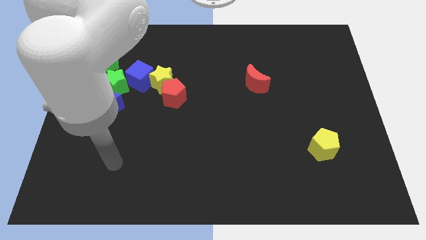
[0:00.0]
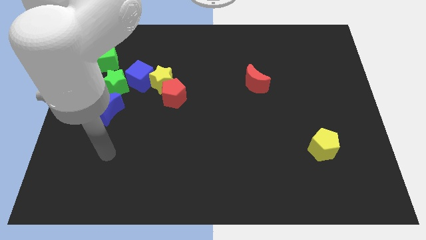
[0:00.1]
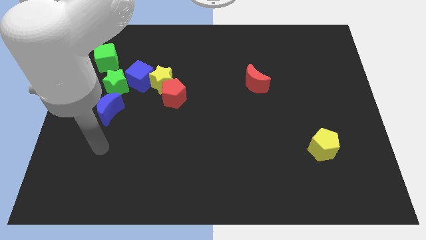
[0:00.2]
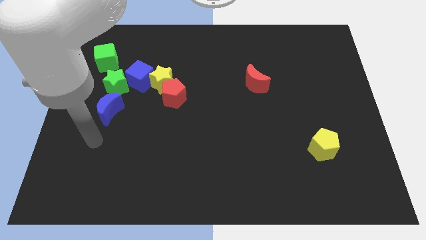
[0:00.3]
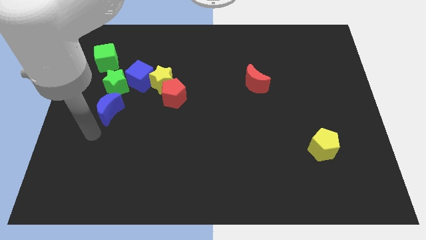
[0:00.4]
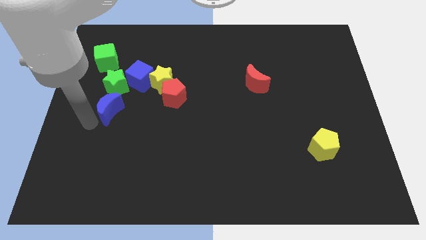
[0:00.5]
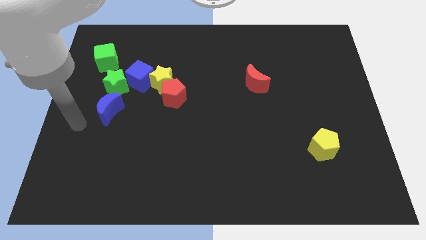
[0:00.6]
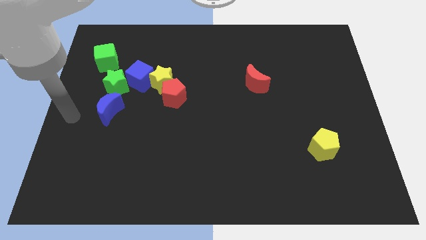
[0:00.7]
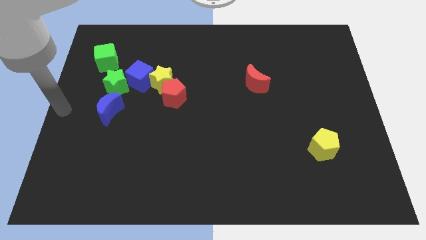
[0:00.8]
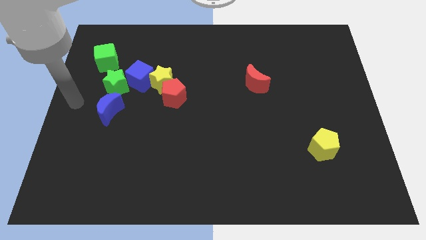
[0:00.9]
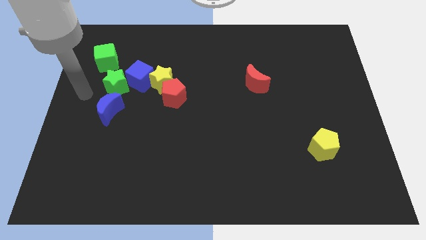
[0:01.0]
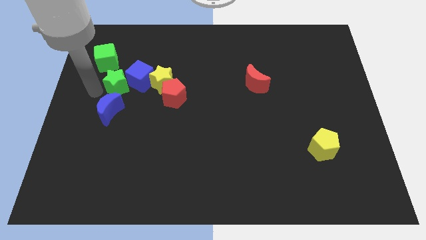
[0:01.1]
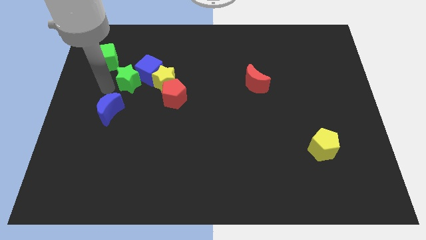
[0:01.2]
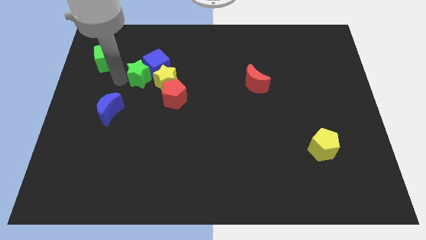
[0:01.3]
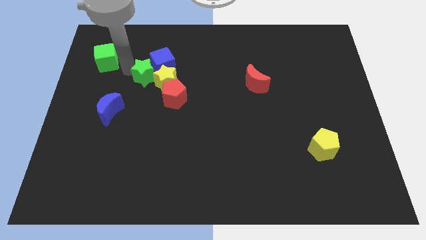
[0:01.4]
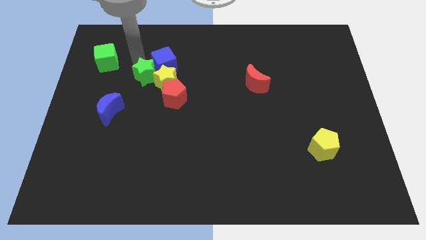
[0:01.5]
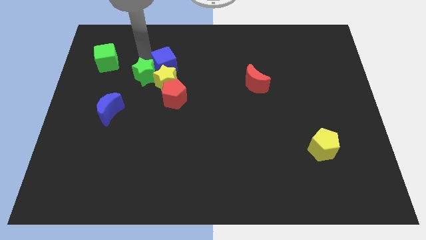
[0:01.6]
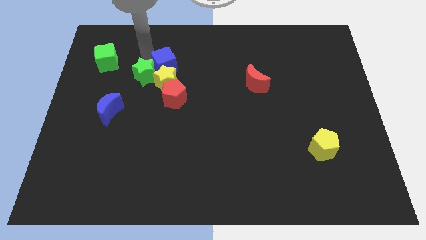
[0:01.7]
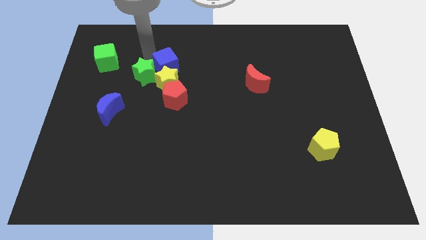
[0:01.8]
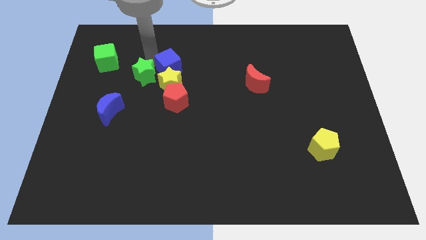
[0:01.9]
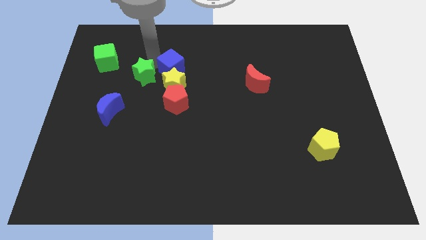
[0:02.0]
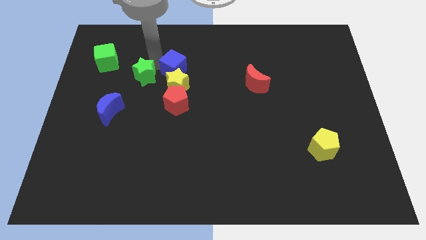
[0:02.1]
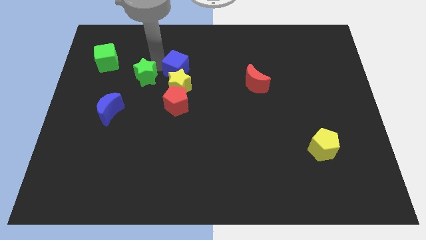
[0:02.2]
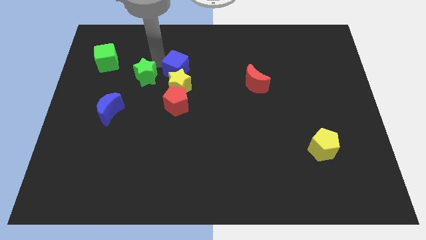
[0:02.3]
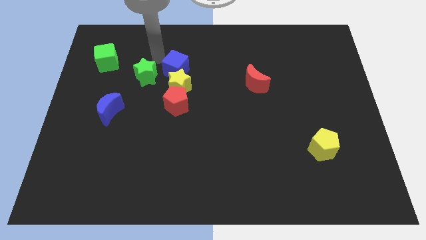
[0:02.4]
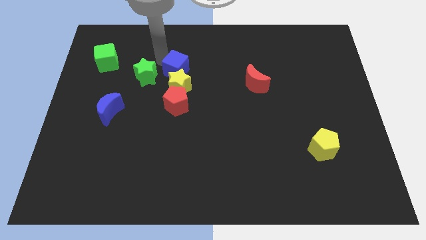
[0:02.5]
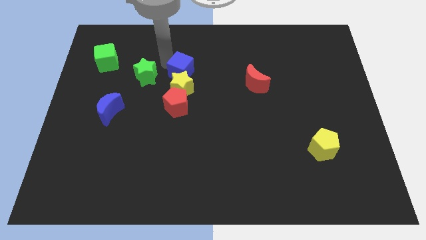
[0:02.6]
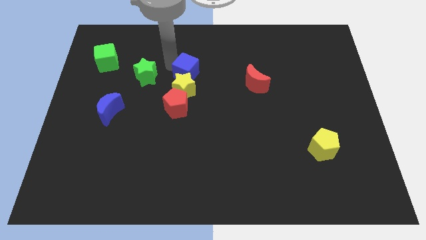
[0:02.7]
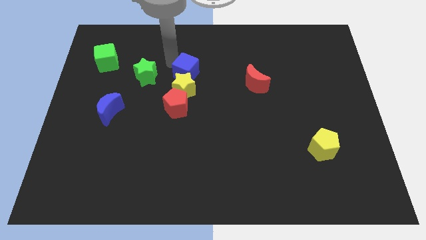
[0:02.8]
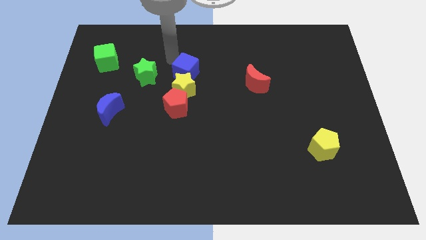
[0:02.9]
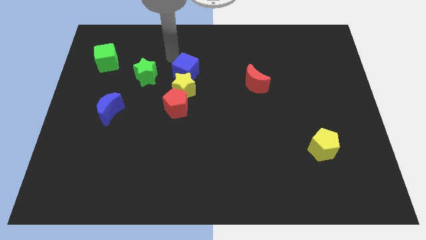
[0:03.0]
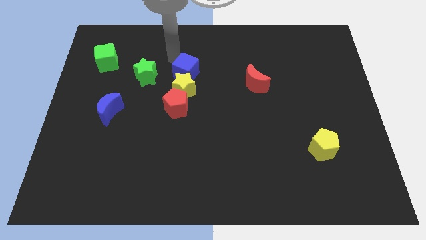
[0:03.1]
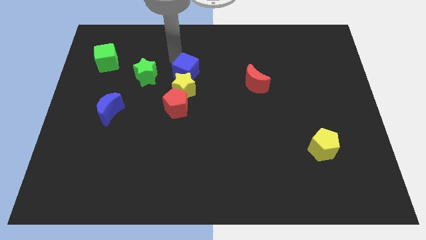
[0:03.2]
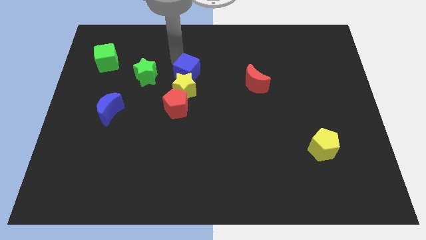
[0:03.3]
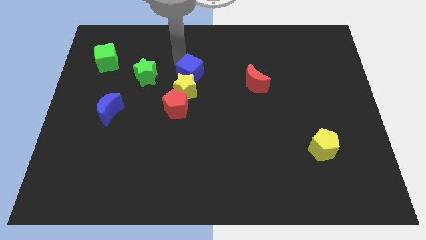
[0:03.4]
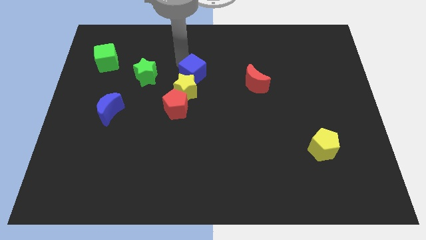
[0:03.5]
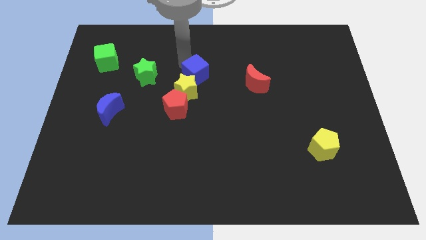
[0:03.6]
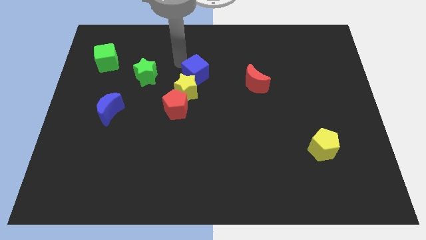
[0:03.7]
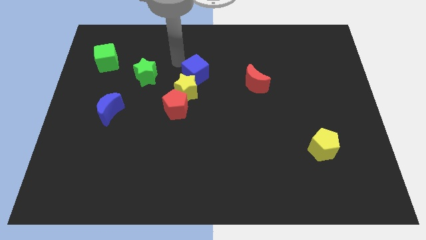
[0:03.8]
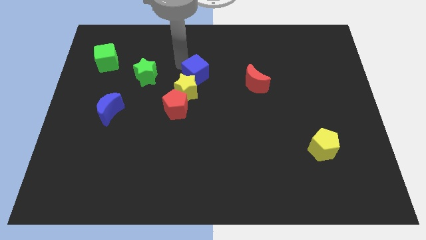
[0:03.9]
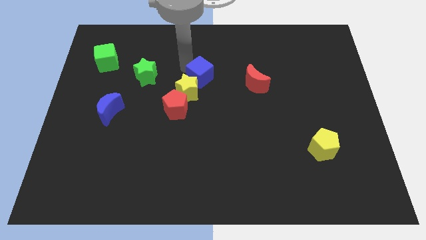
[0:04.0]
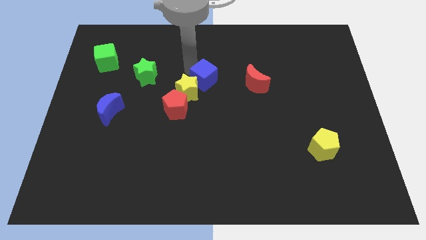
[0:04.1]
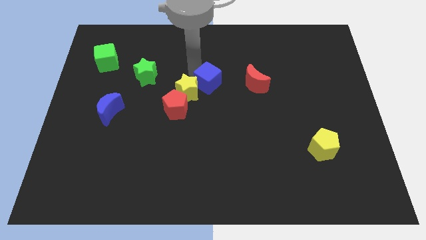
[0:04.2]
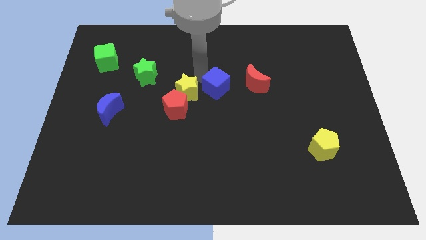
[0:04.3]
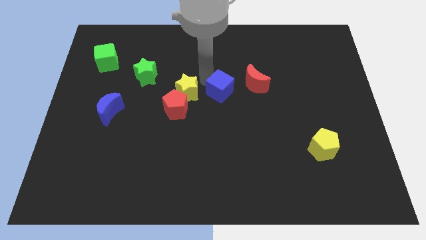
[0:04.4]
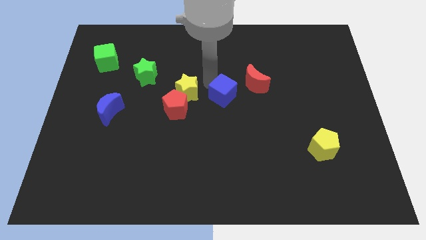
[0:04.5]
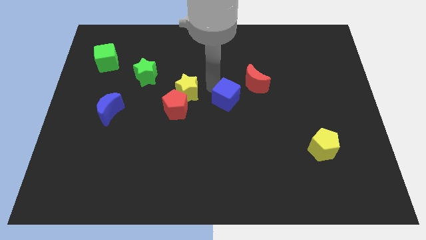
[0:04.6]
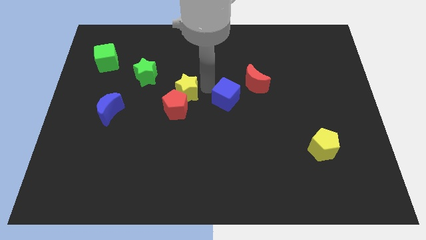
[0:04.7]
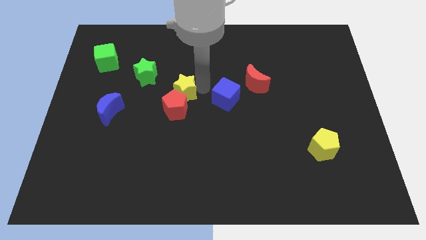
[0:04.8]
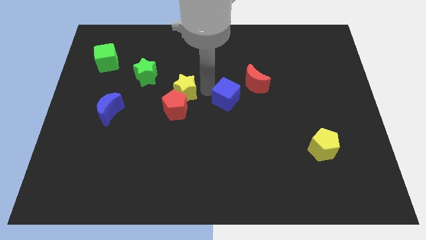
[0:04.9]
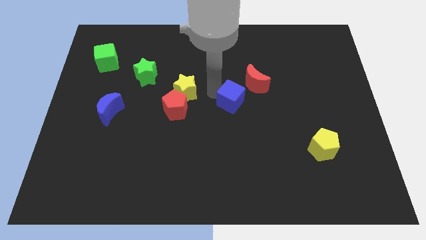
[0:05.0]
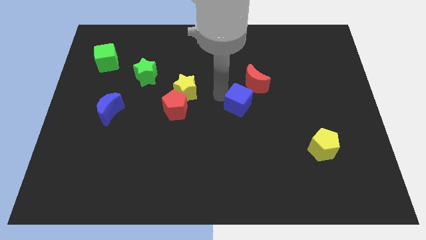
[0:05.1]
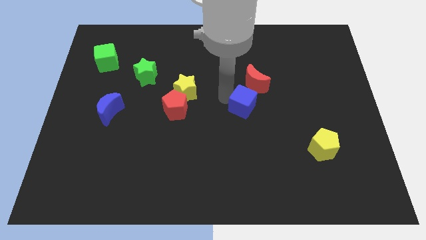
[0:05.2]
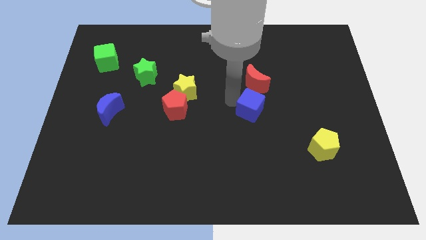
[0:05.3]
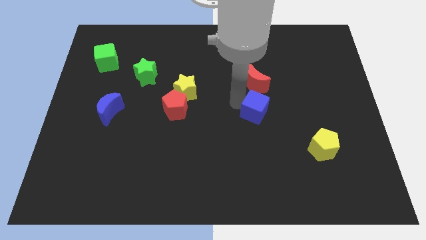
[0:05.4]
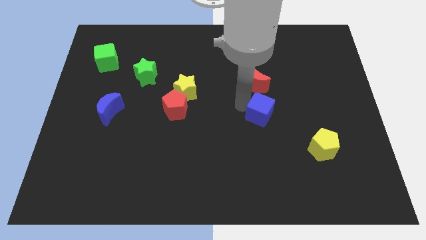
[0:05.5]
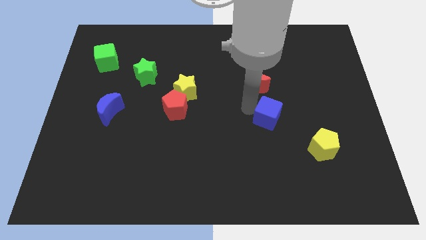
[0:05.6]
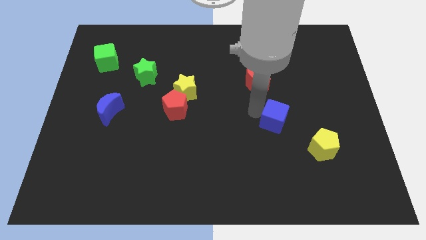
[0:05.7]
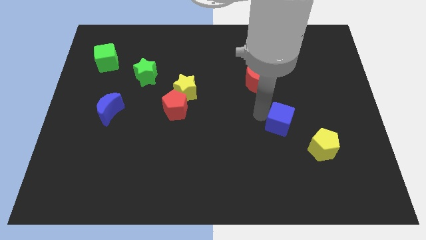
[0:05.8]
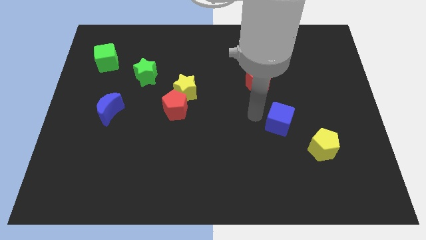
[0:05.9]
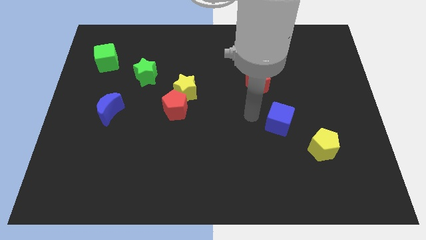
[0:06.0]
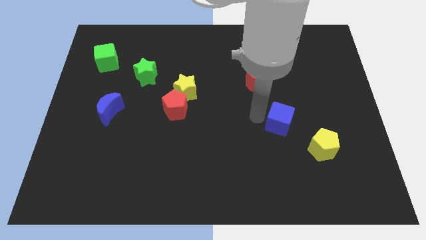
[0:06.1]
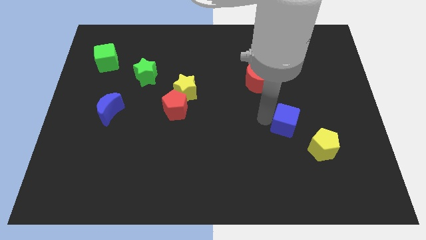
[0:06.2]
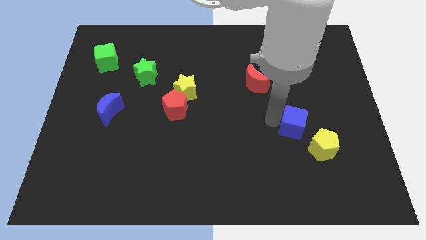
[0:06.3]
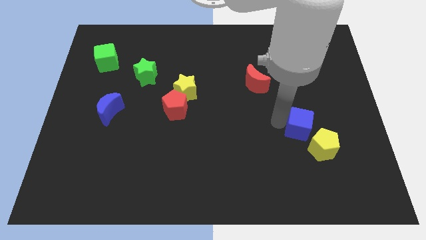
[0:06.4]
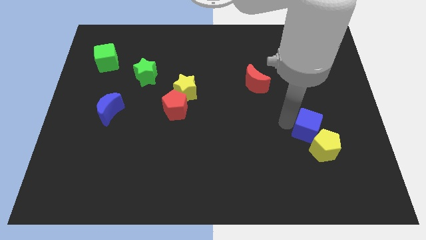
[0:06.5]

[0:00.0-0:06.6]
put the blue cube to the yellow pentagon
